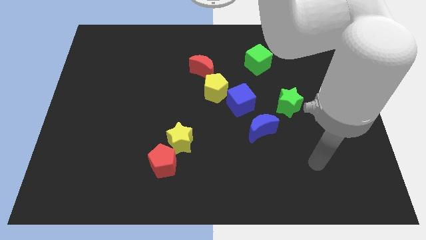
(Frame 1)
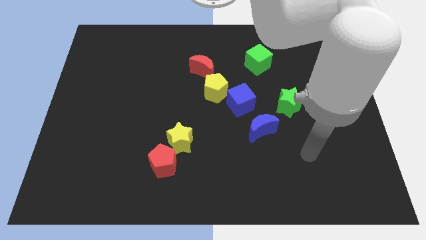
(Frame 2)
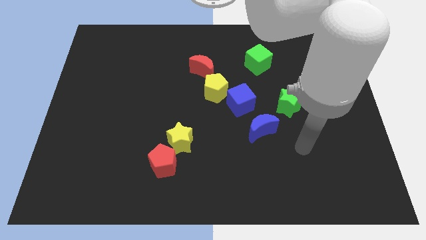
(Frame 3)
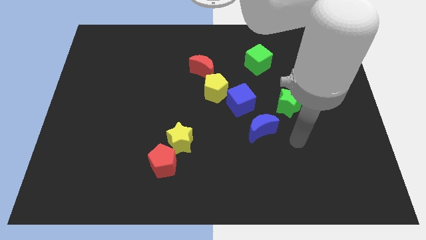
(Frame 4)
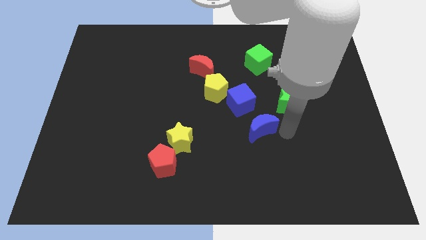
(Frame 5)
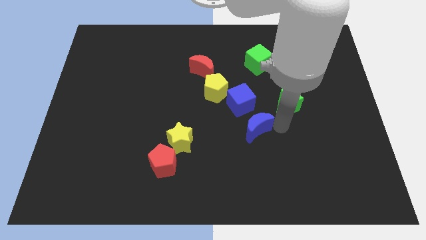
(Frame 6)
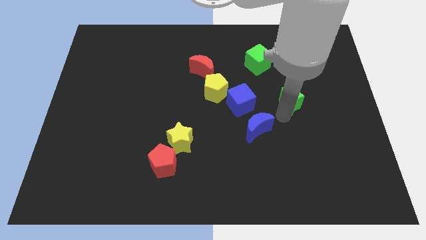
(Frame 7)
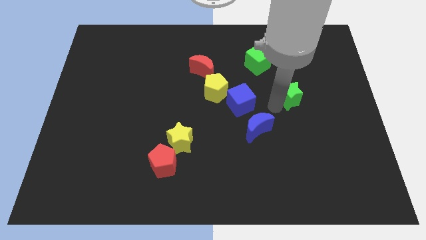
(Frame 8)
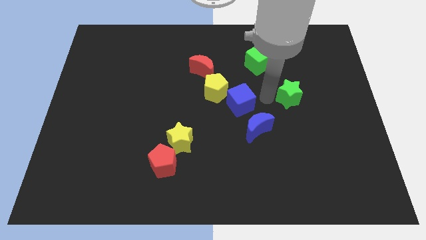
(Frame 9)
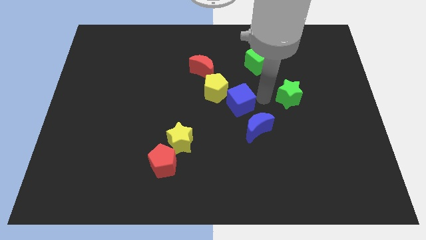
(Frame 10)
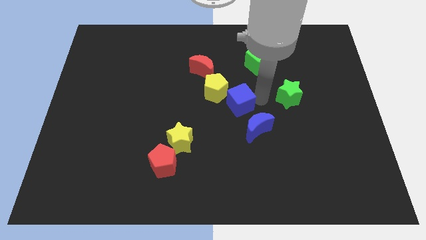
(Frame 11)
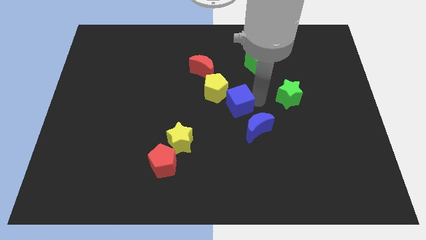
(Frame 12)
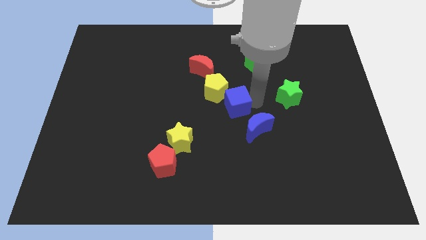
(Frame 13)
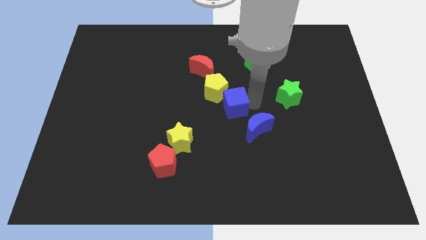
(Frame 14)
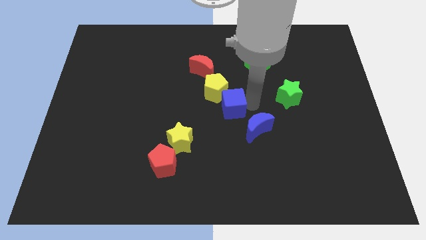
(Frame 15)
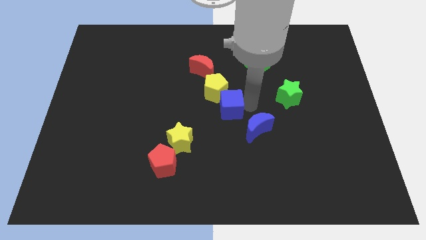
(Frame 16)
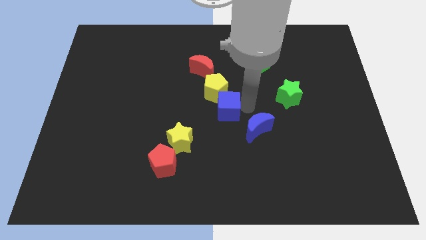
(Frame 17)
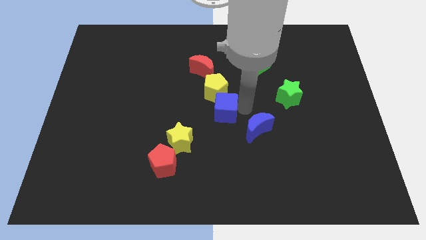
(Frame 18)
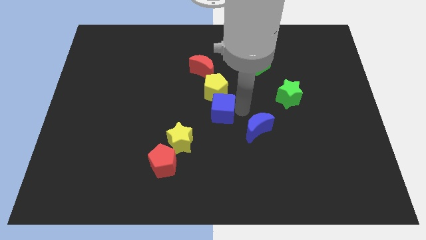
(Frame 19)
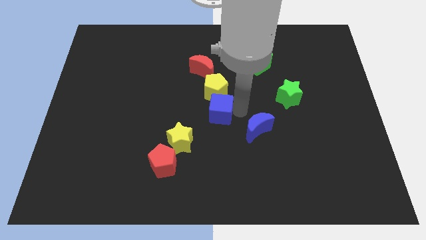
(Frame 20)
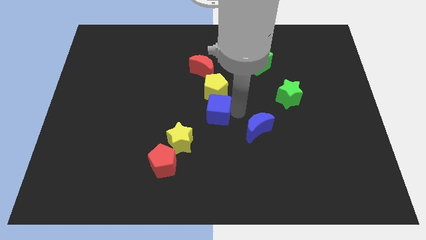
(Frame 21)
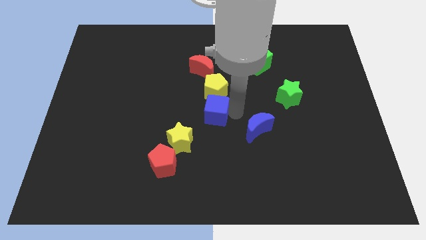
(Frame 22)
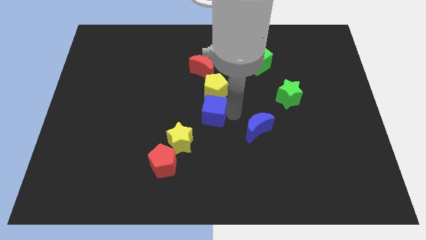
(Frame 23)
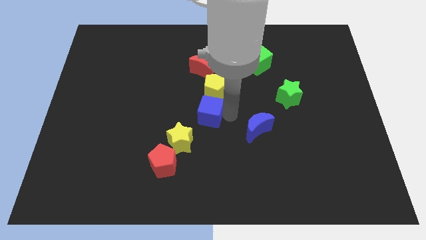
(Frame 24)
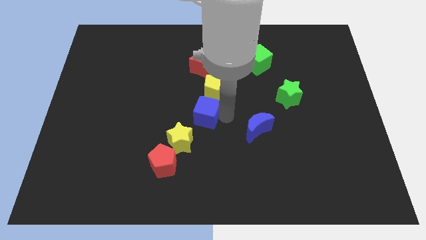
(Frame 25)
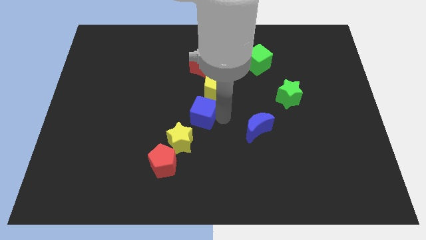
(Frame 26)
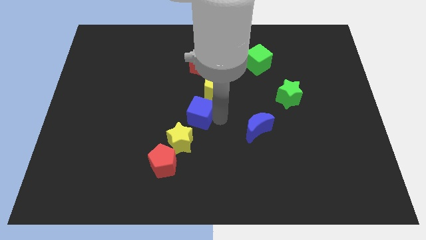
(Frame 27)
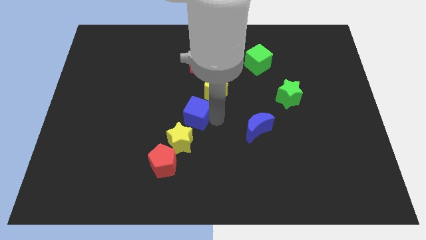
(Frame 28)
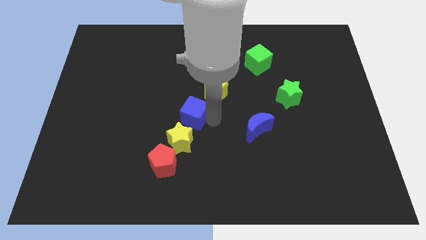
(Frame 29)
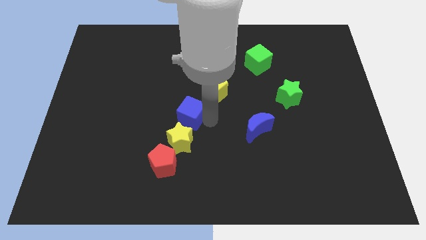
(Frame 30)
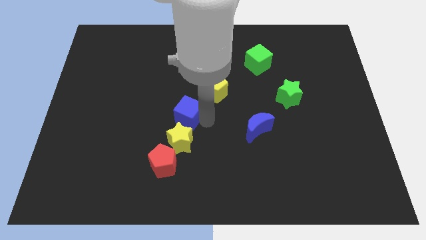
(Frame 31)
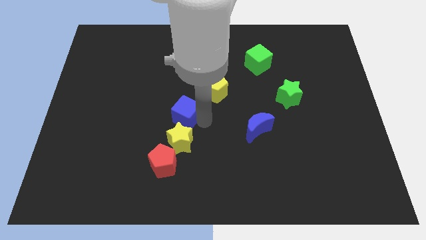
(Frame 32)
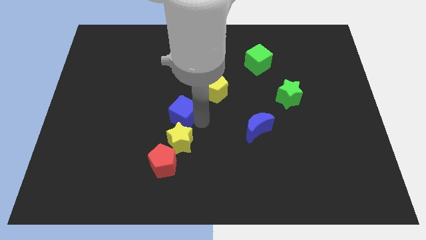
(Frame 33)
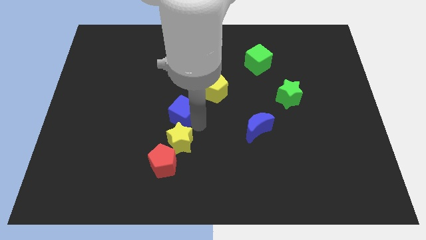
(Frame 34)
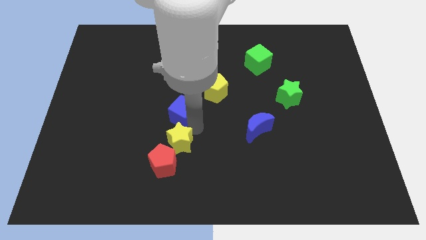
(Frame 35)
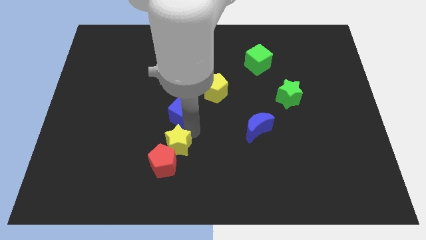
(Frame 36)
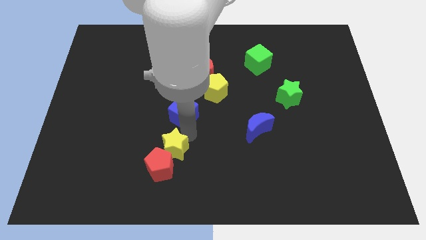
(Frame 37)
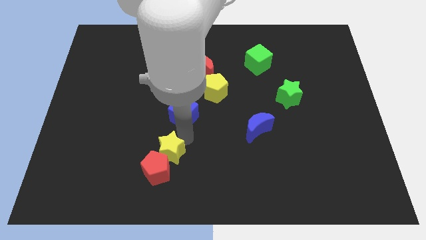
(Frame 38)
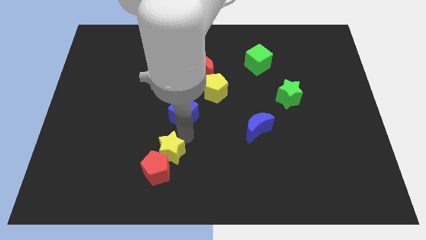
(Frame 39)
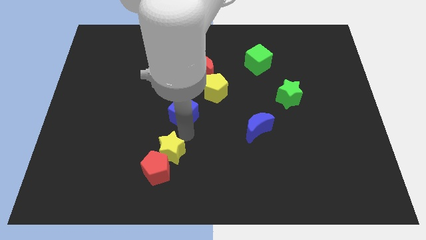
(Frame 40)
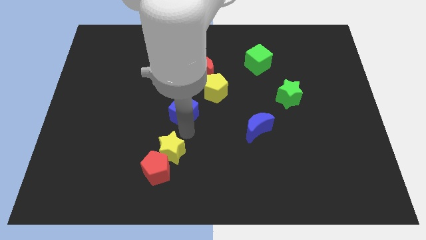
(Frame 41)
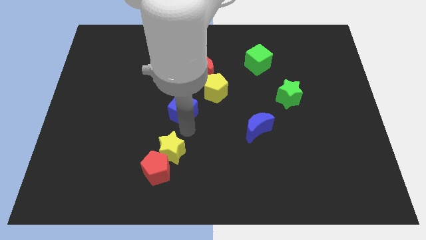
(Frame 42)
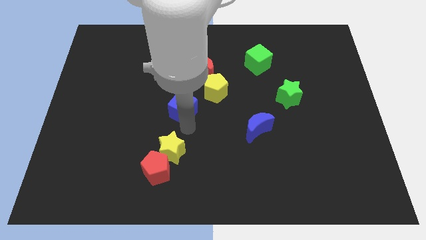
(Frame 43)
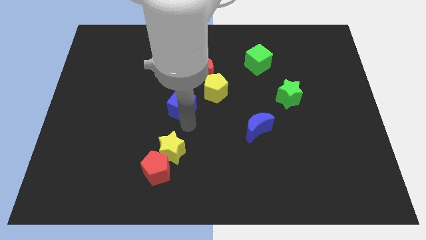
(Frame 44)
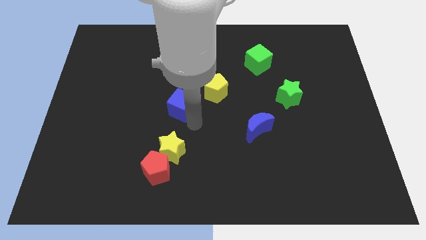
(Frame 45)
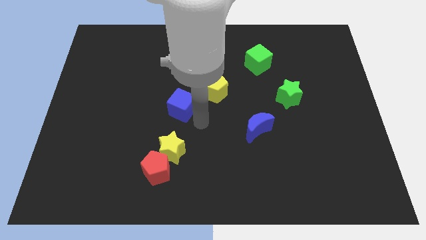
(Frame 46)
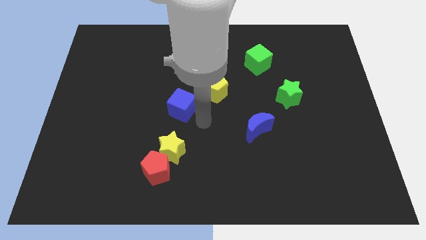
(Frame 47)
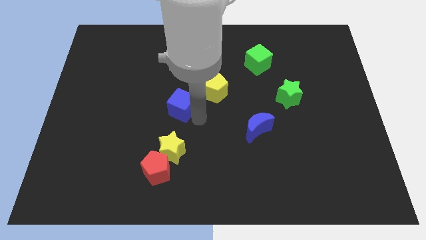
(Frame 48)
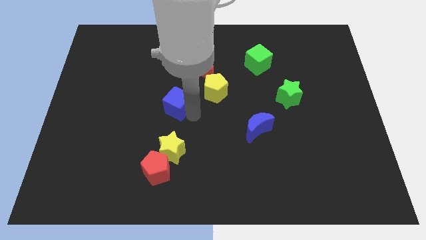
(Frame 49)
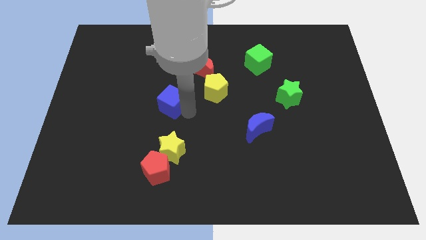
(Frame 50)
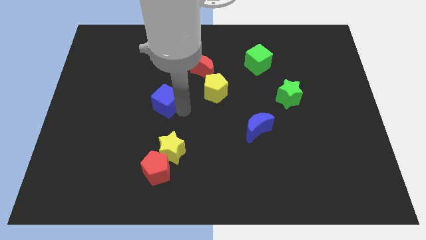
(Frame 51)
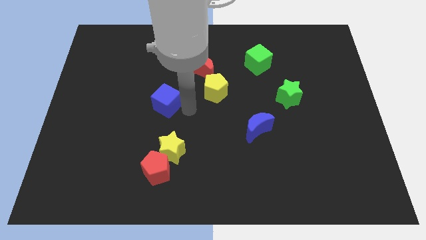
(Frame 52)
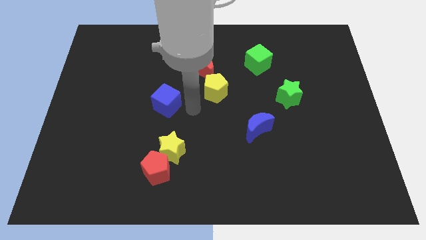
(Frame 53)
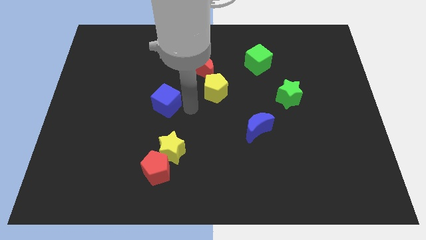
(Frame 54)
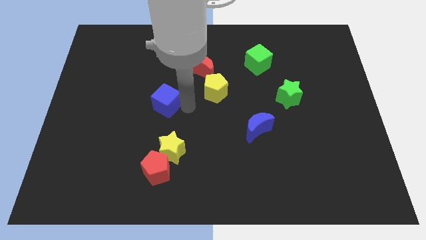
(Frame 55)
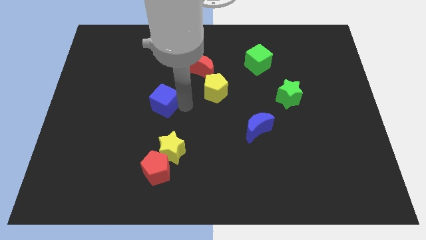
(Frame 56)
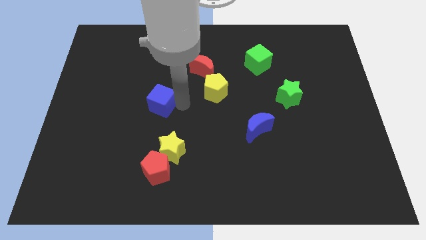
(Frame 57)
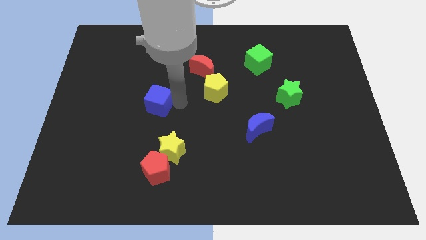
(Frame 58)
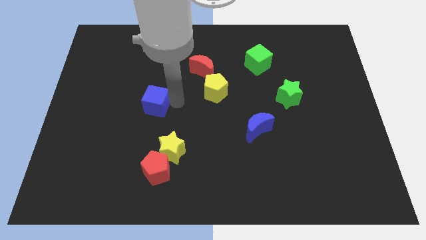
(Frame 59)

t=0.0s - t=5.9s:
slide the blue cube left

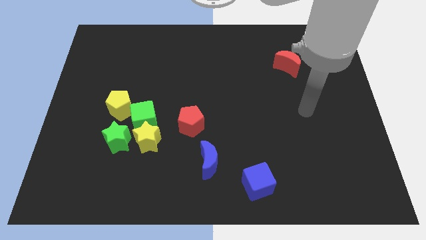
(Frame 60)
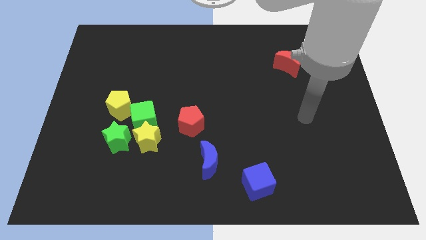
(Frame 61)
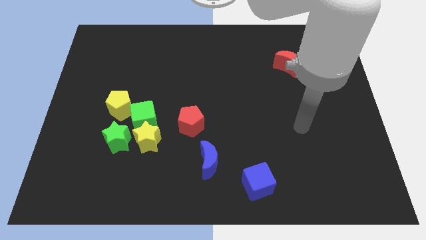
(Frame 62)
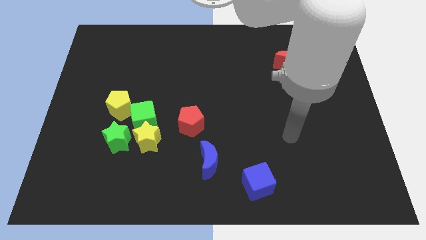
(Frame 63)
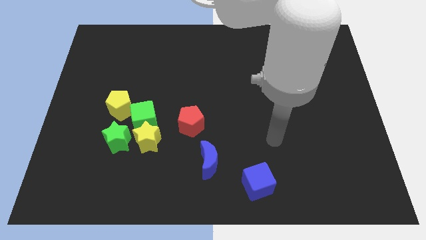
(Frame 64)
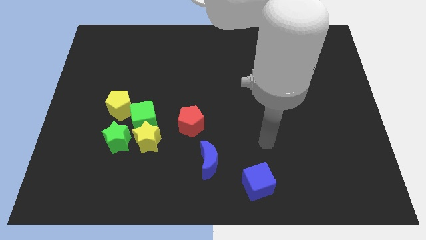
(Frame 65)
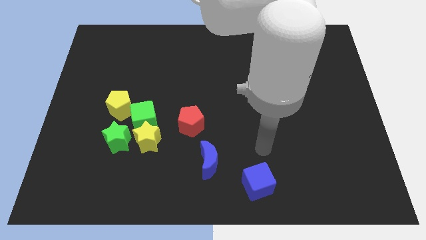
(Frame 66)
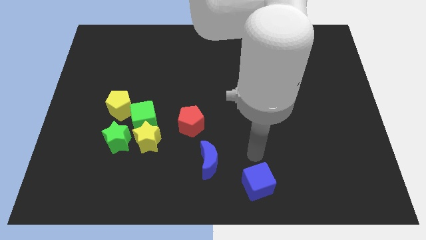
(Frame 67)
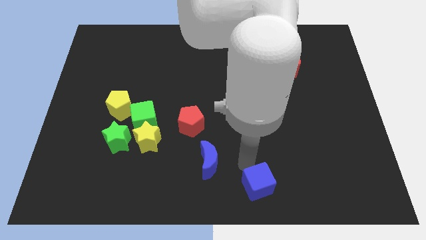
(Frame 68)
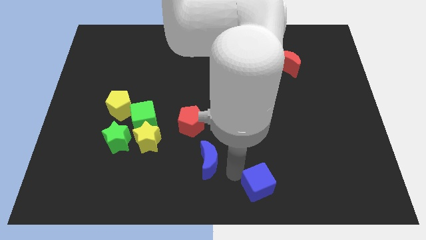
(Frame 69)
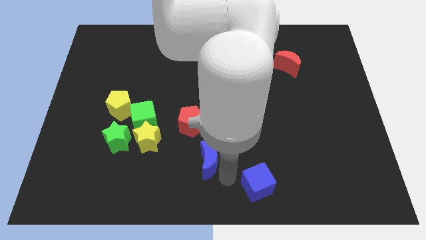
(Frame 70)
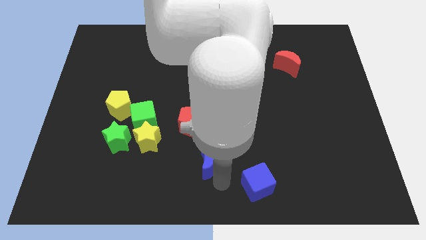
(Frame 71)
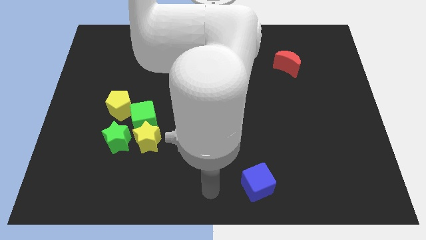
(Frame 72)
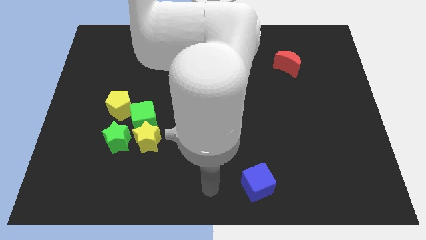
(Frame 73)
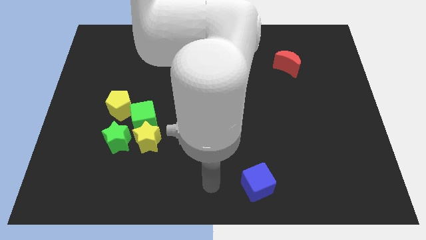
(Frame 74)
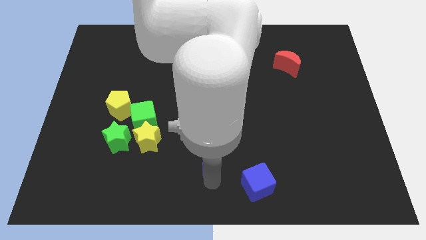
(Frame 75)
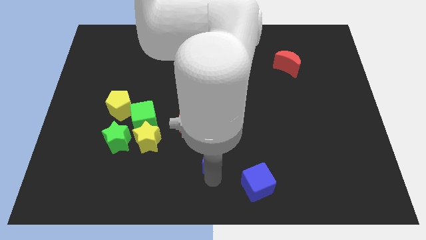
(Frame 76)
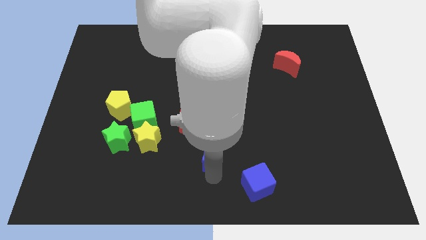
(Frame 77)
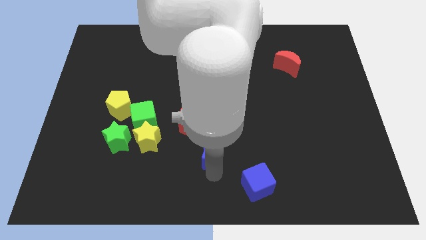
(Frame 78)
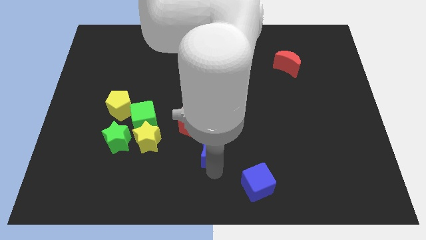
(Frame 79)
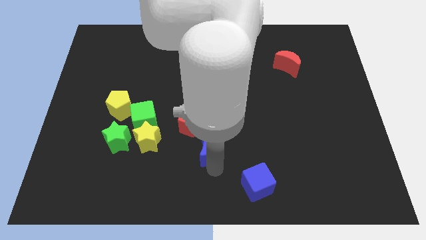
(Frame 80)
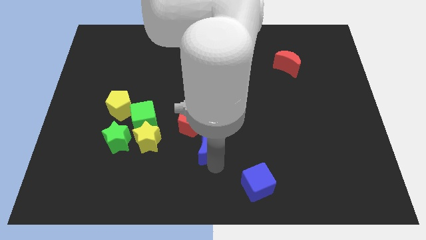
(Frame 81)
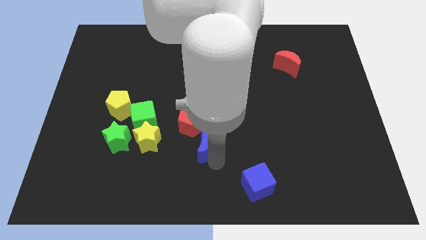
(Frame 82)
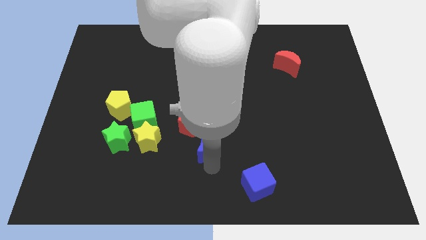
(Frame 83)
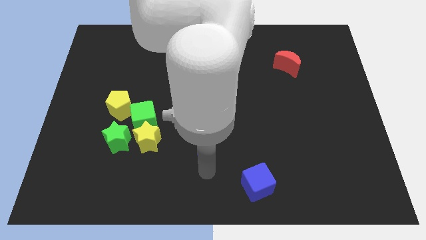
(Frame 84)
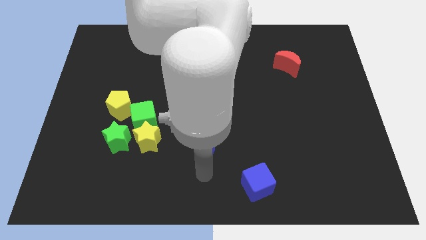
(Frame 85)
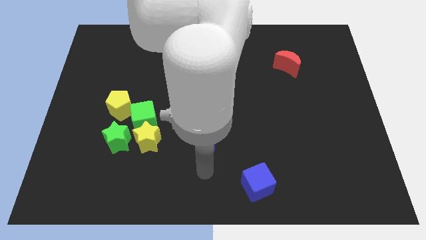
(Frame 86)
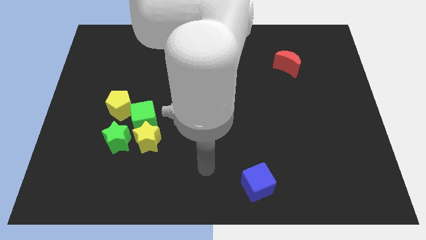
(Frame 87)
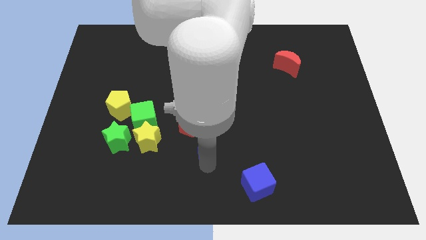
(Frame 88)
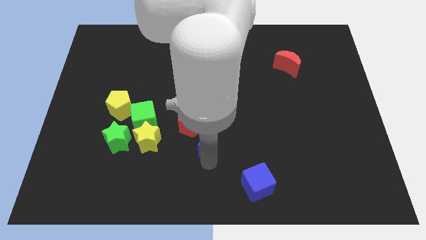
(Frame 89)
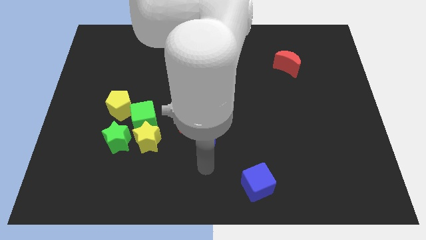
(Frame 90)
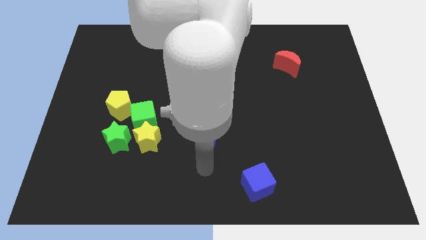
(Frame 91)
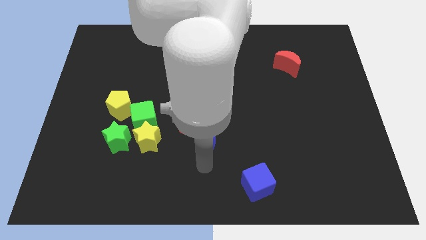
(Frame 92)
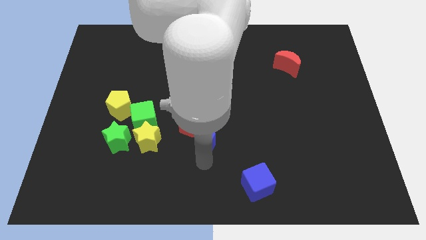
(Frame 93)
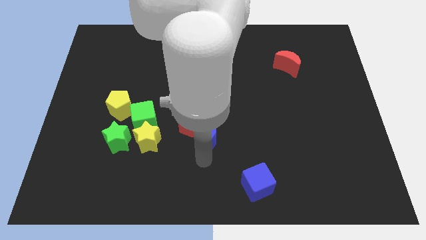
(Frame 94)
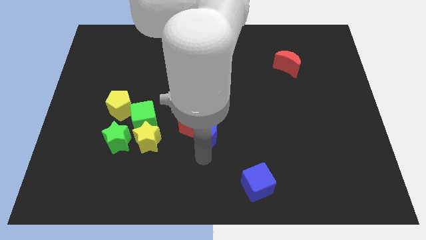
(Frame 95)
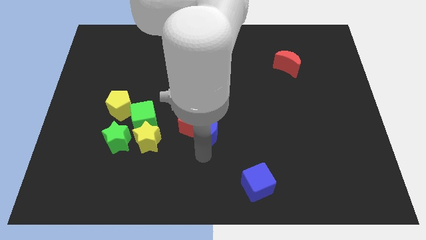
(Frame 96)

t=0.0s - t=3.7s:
slightly push the blue moon up
